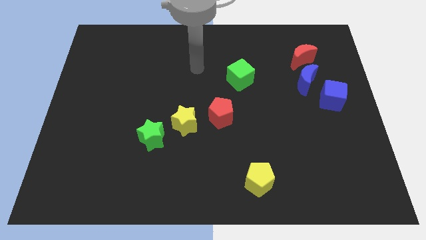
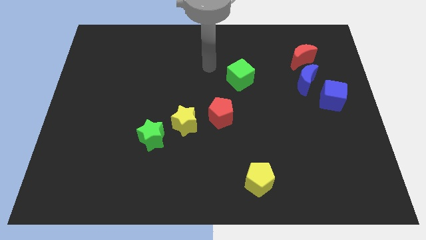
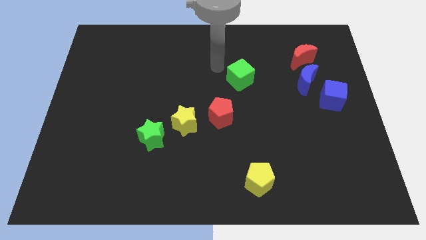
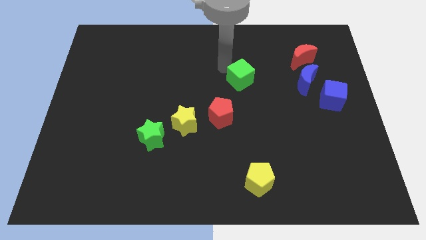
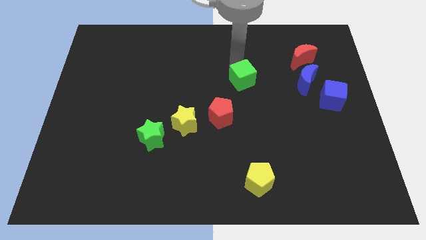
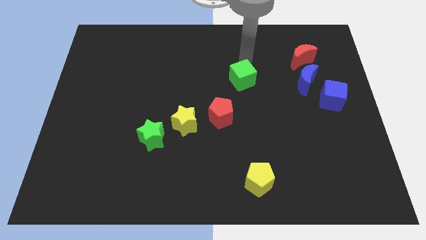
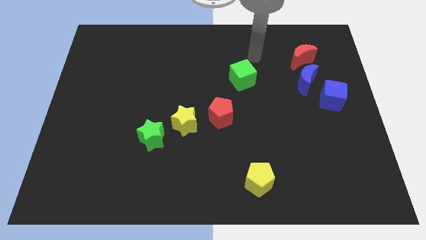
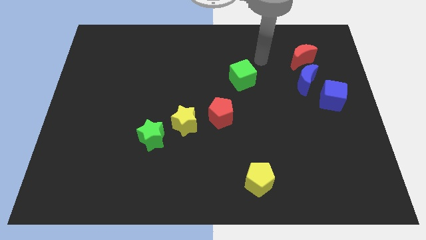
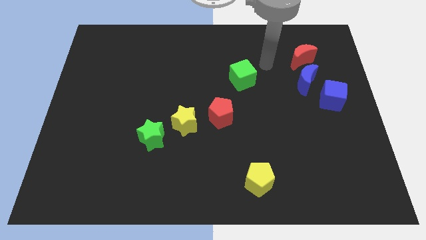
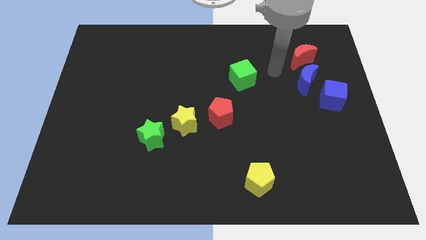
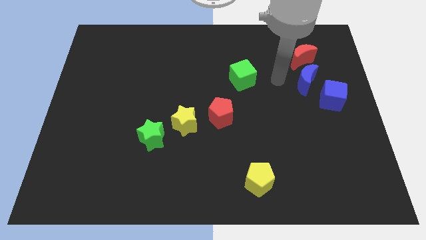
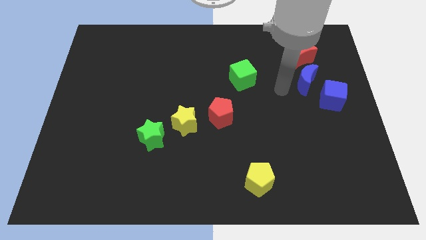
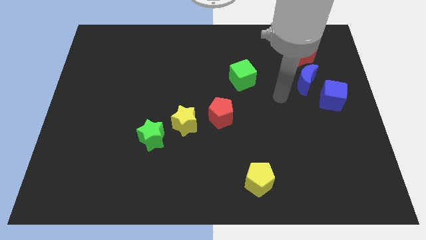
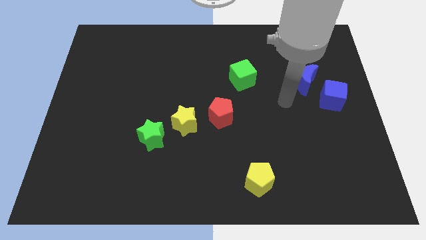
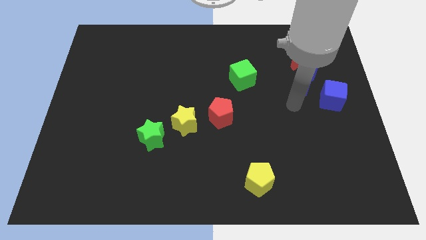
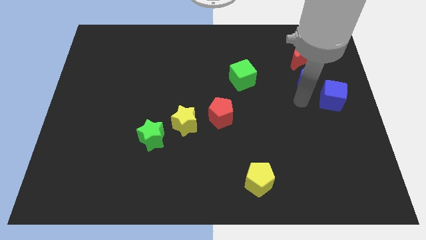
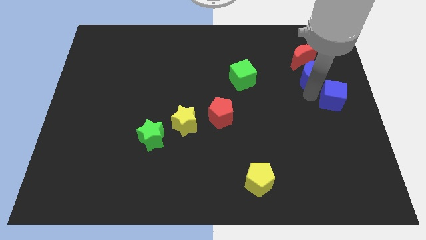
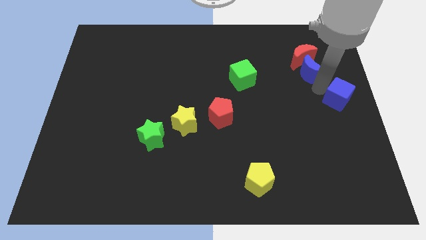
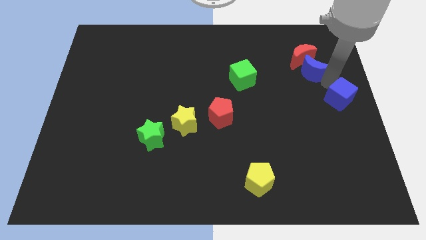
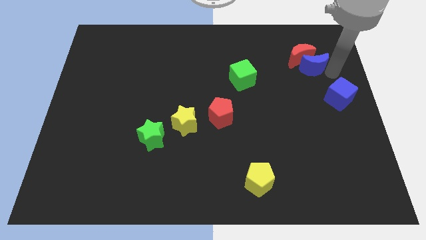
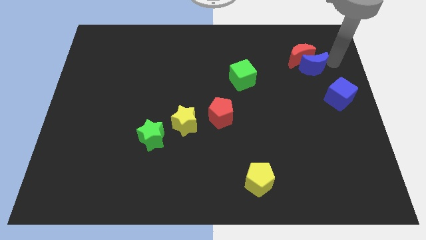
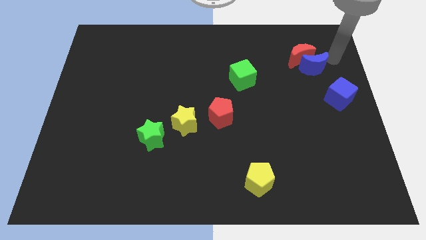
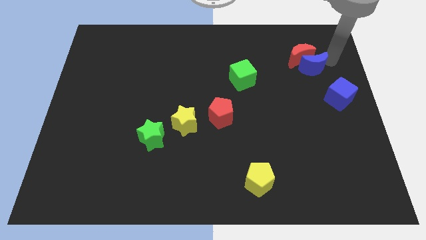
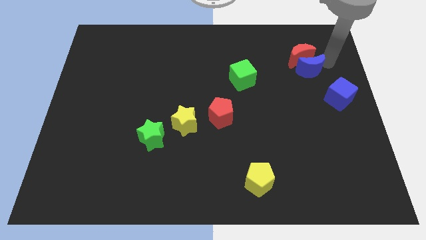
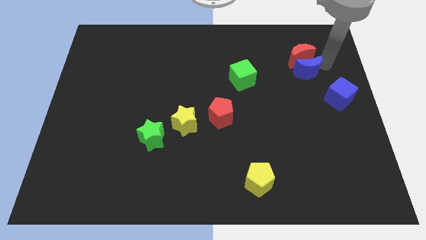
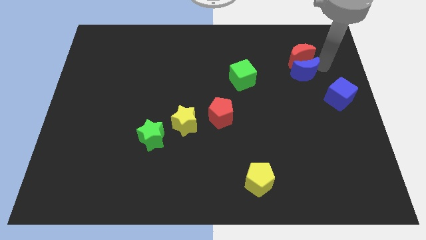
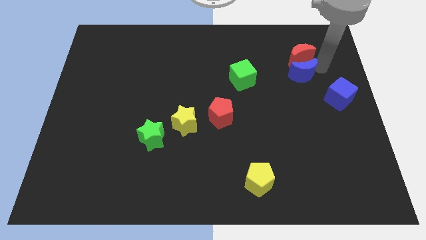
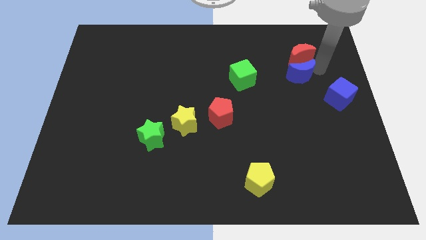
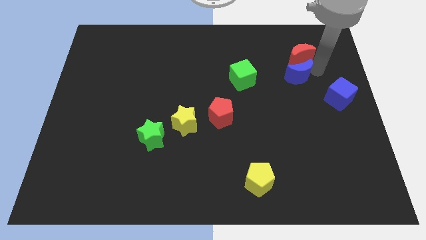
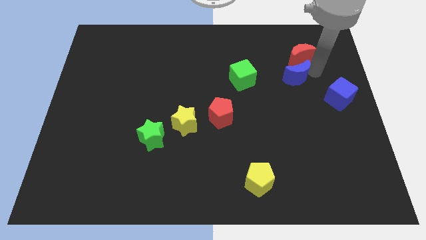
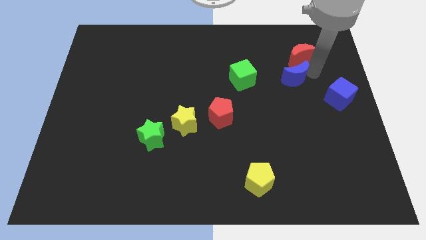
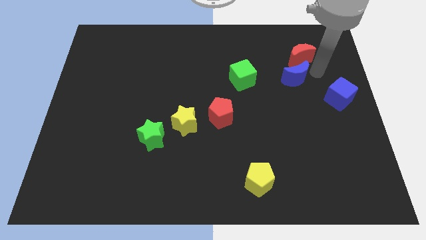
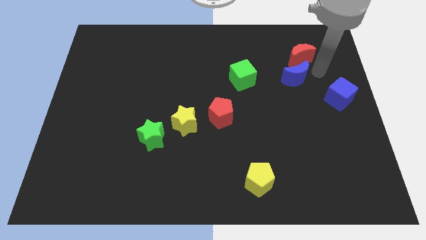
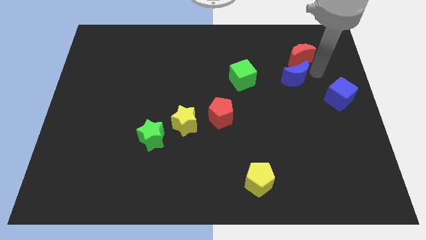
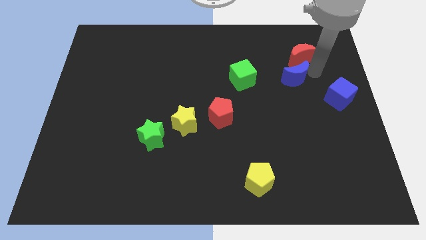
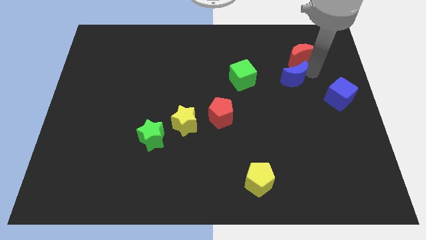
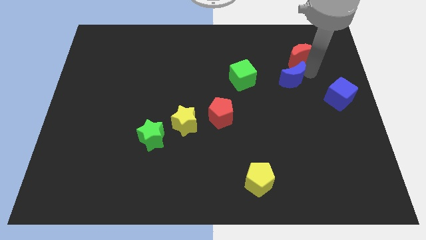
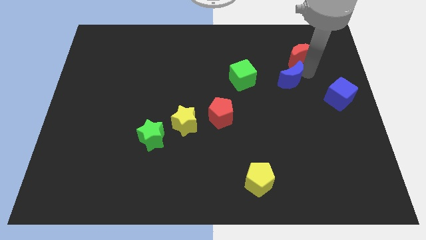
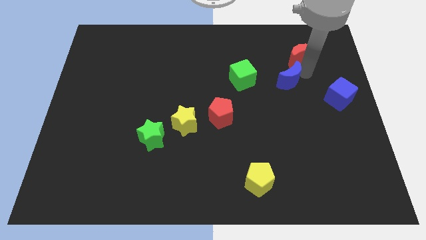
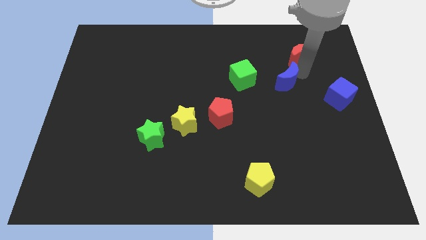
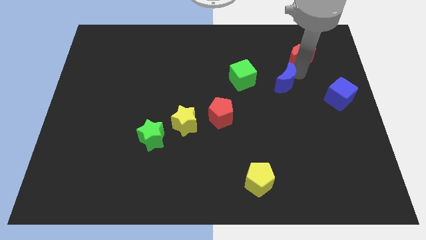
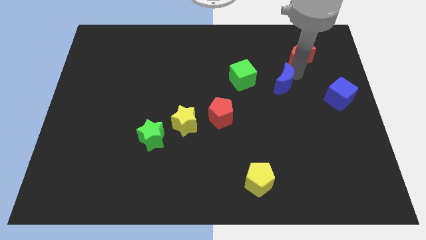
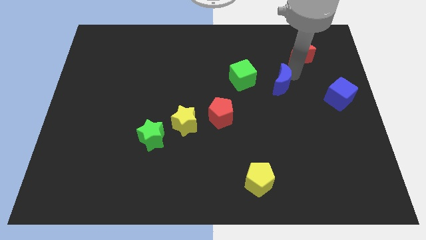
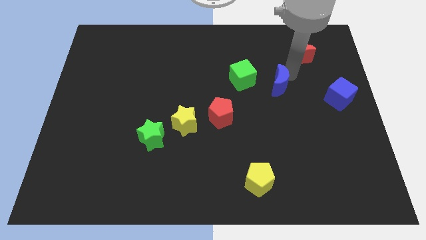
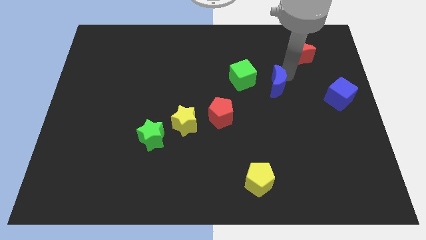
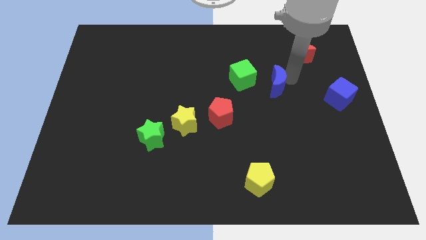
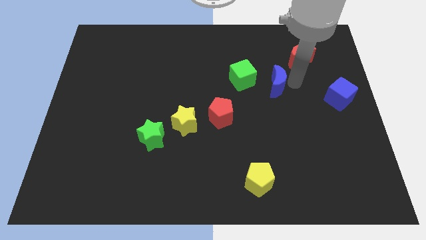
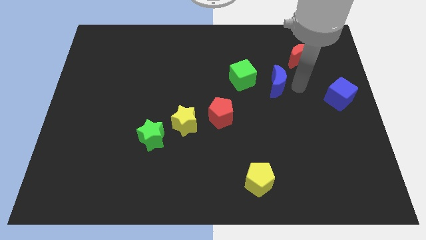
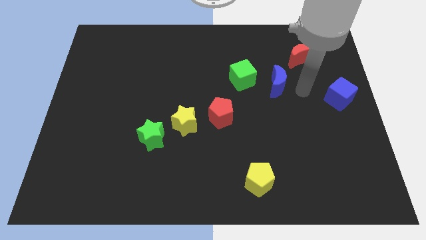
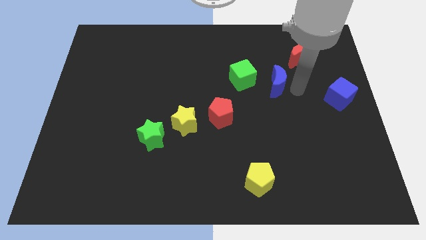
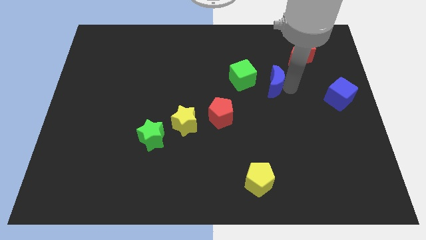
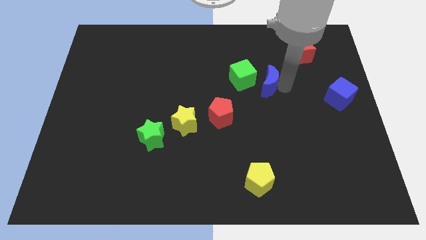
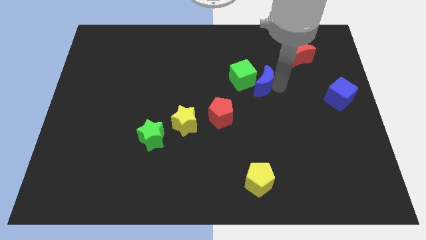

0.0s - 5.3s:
put the blue moon to the green cube

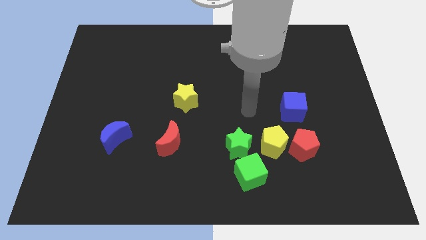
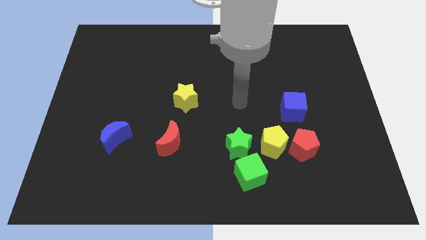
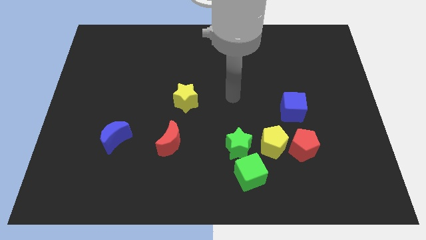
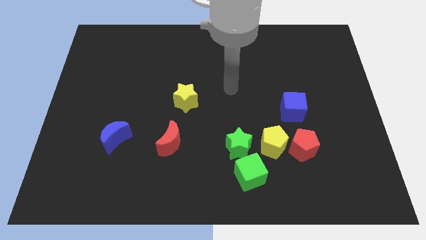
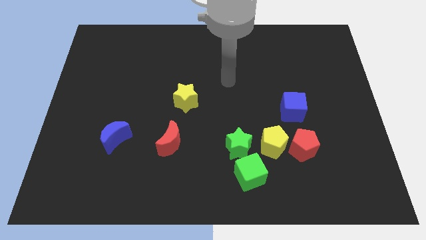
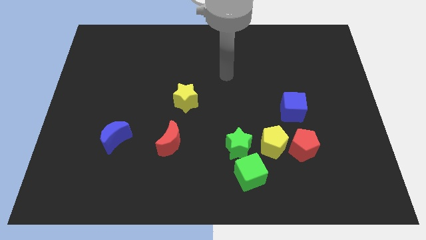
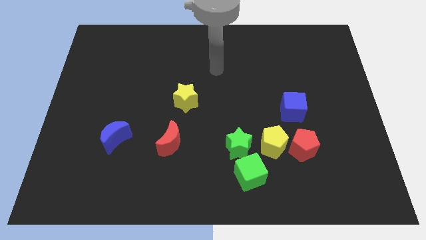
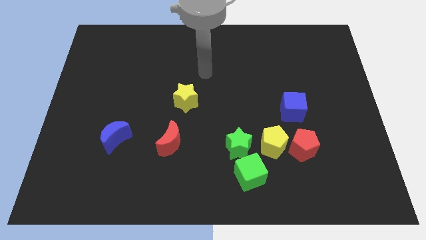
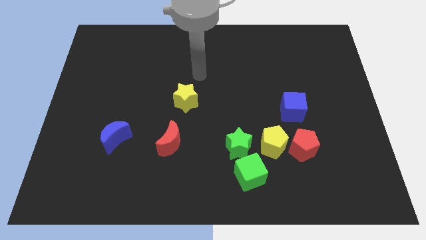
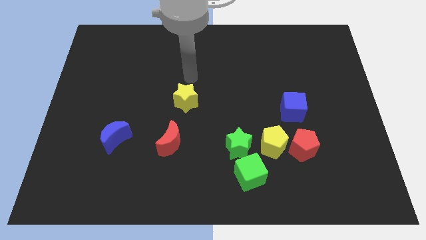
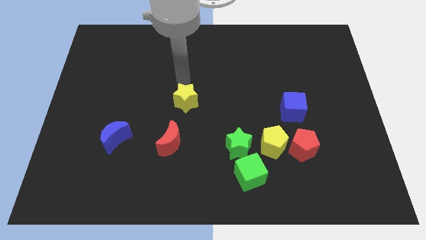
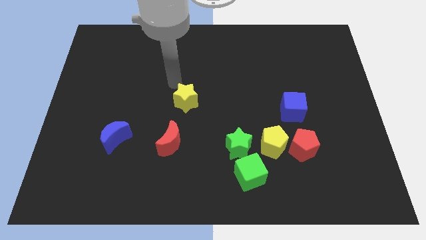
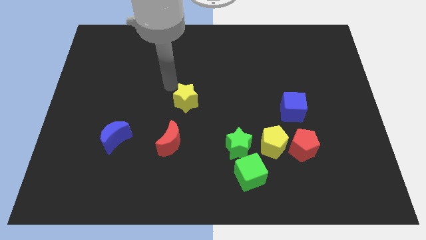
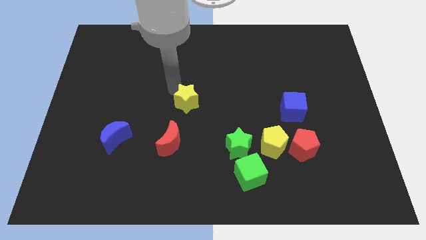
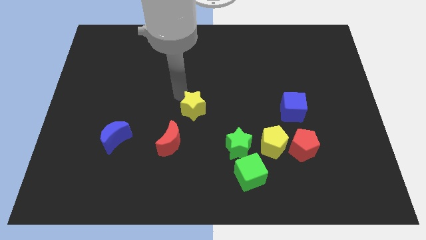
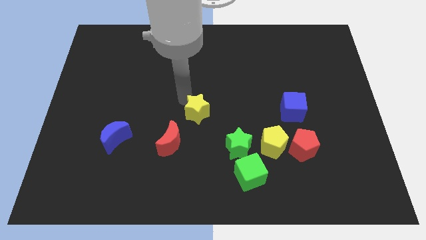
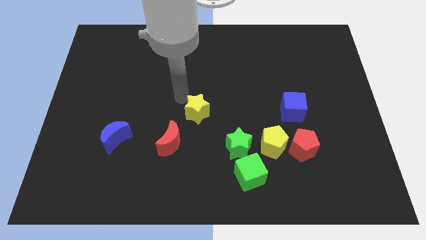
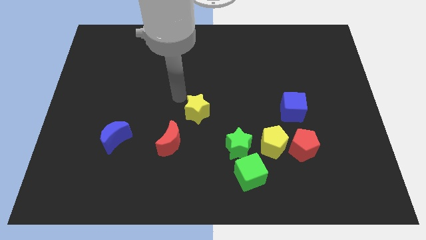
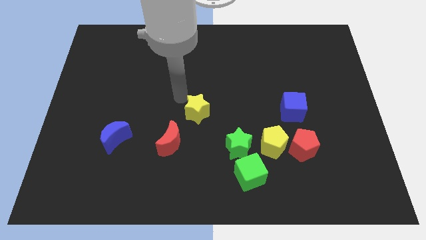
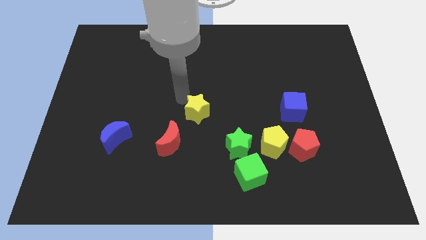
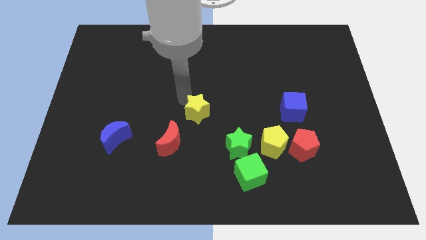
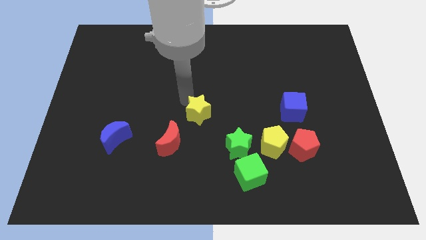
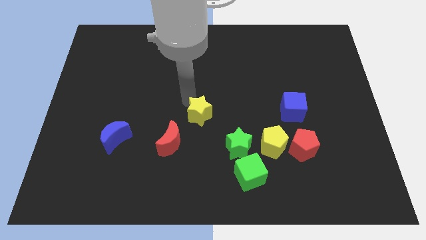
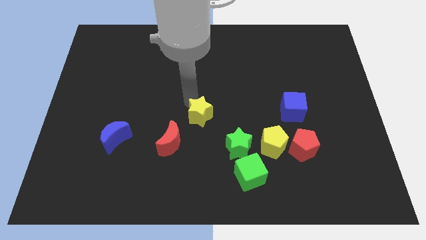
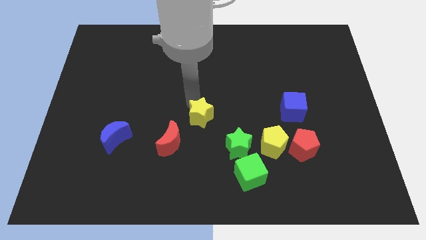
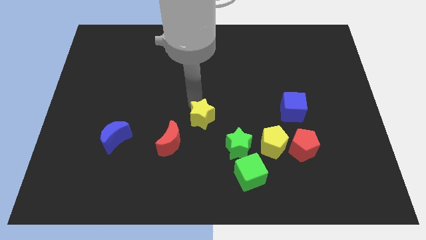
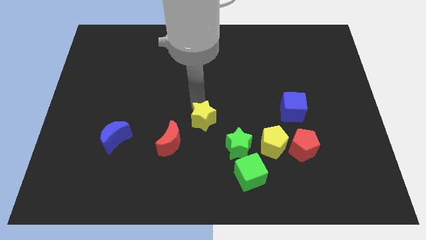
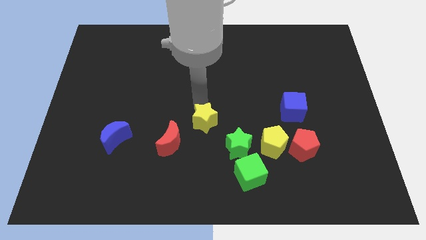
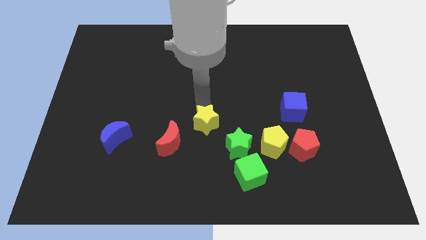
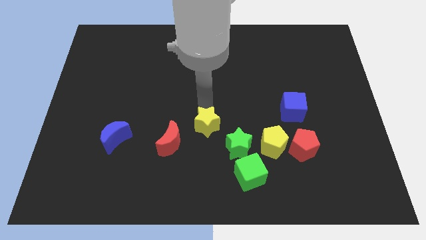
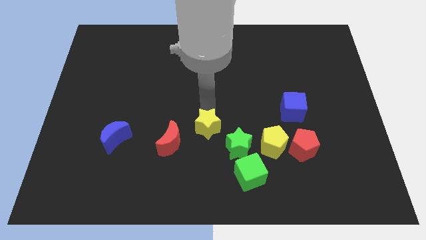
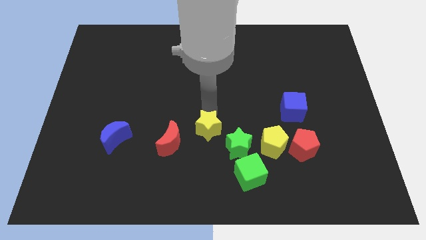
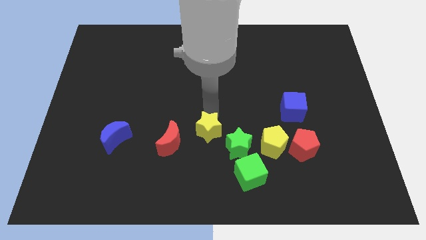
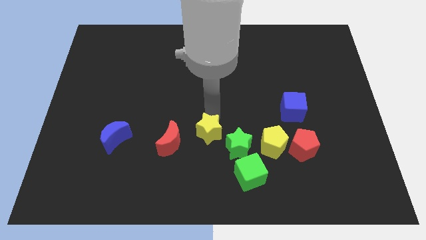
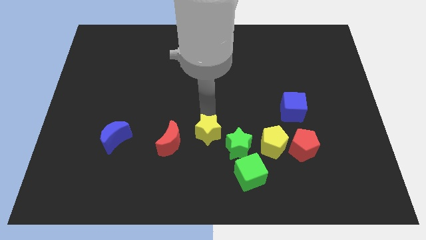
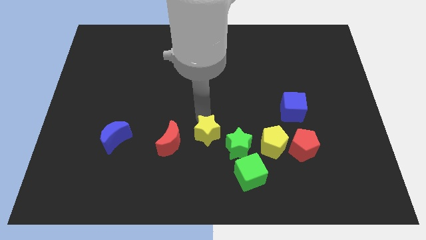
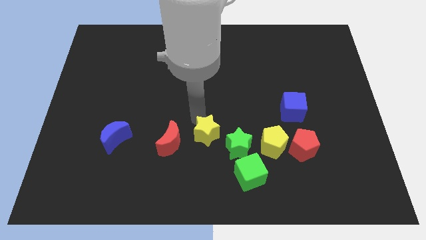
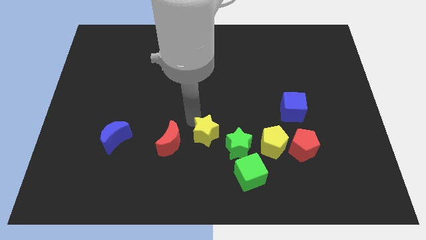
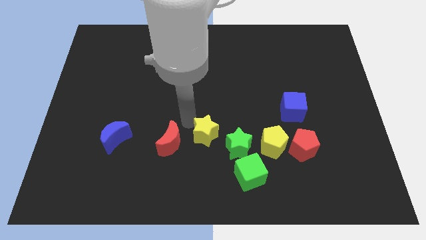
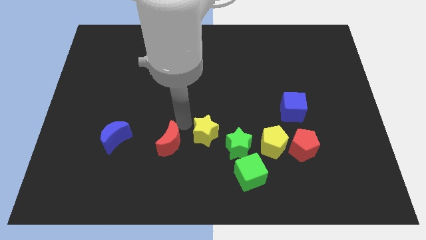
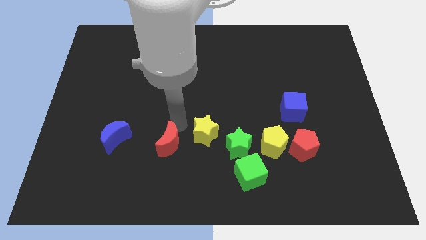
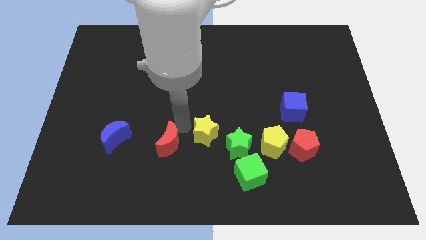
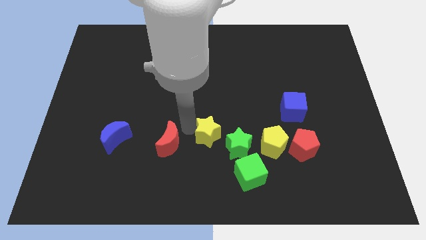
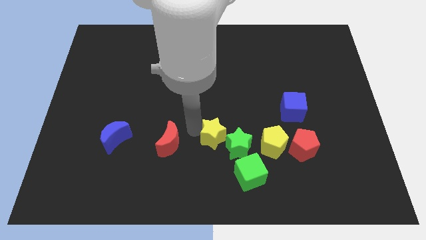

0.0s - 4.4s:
slide the yellow star next to the green star
